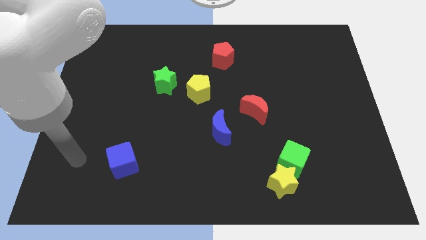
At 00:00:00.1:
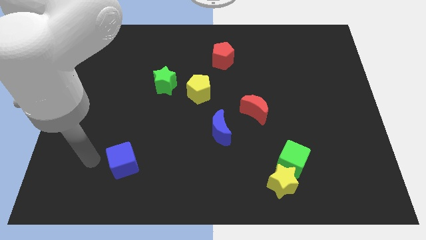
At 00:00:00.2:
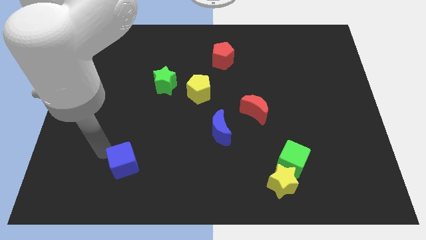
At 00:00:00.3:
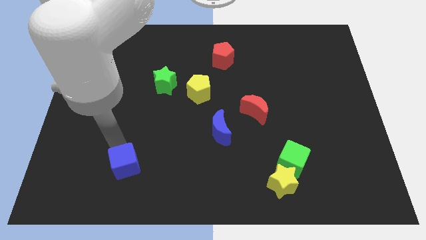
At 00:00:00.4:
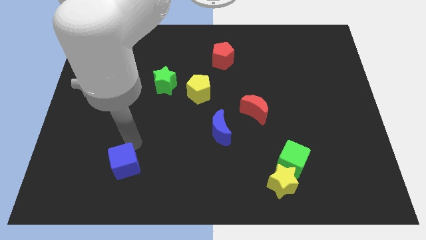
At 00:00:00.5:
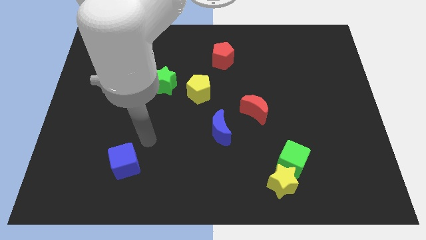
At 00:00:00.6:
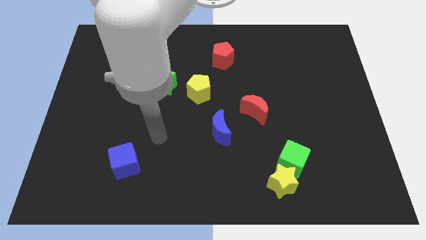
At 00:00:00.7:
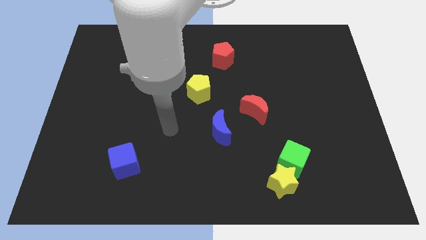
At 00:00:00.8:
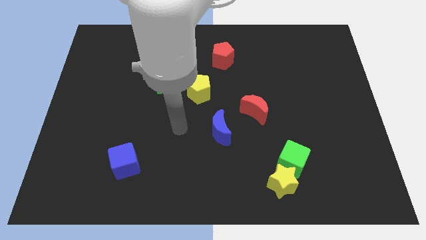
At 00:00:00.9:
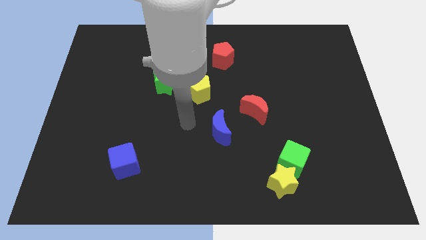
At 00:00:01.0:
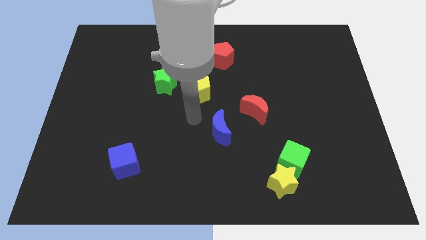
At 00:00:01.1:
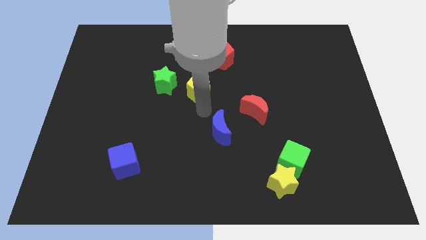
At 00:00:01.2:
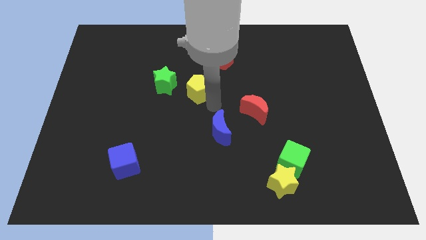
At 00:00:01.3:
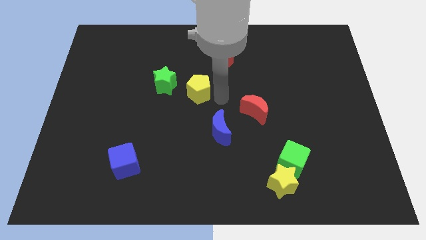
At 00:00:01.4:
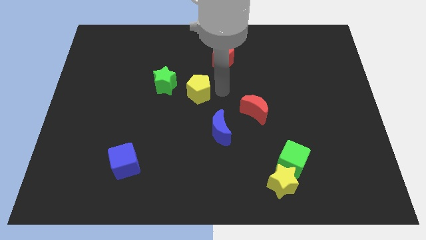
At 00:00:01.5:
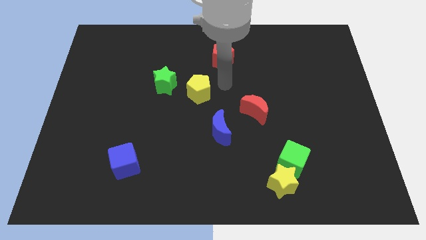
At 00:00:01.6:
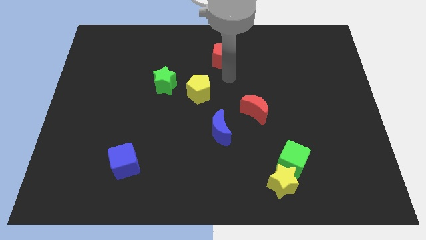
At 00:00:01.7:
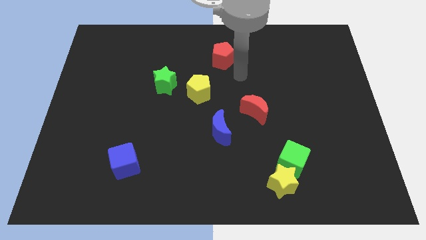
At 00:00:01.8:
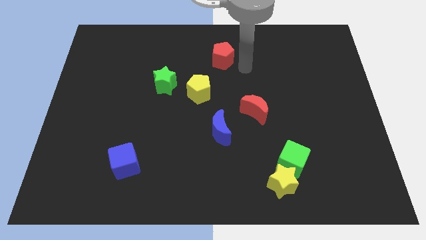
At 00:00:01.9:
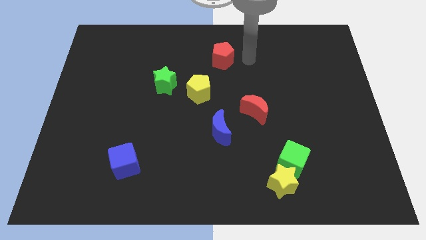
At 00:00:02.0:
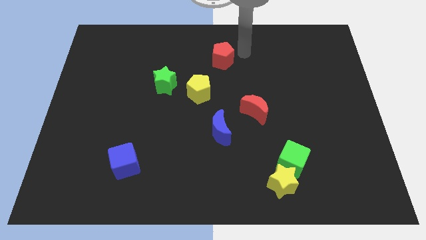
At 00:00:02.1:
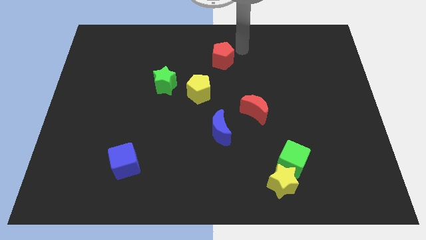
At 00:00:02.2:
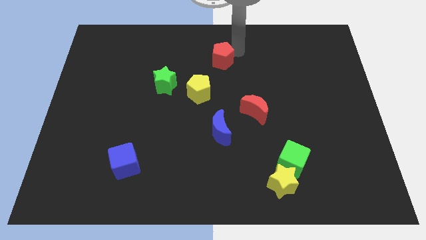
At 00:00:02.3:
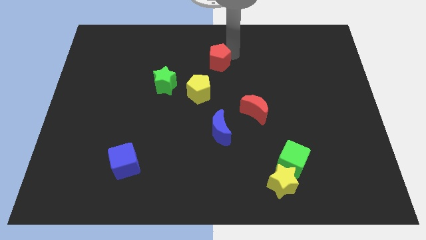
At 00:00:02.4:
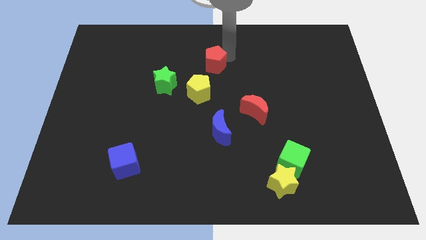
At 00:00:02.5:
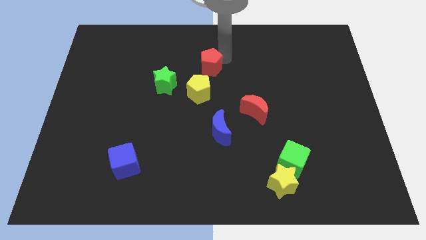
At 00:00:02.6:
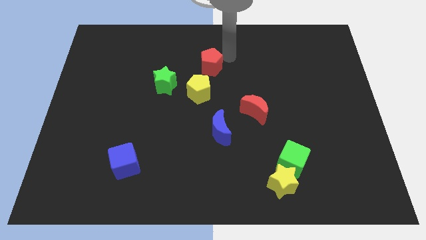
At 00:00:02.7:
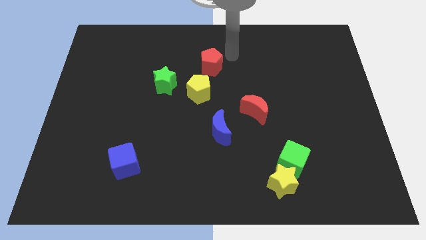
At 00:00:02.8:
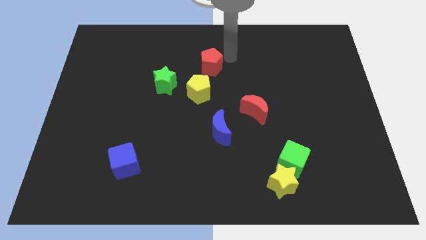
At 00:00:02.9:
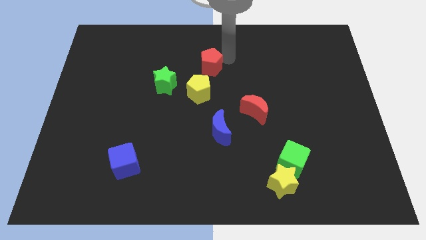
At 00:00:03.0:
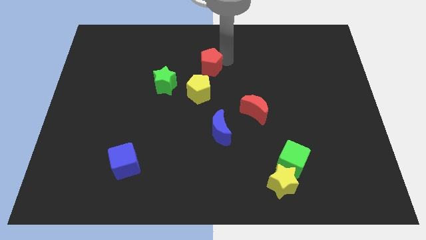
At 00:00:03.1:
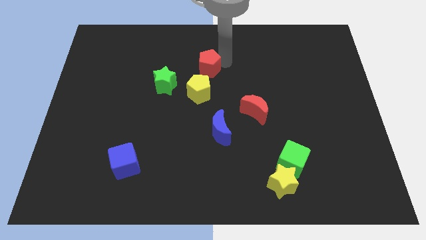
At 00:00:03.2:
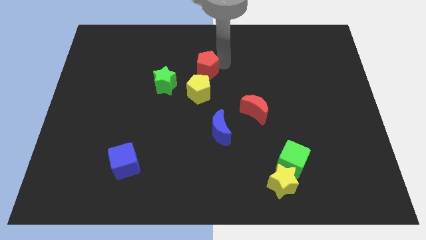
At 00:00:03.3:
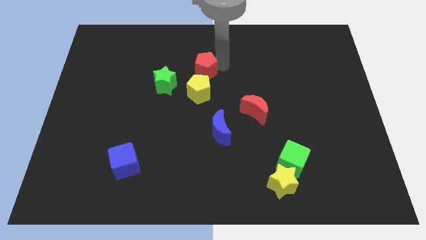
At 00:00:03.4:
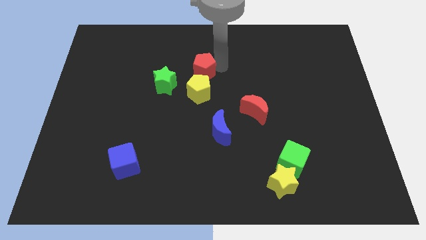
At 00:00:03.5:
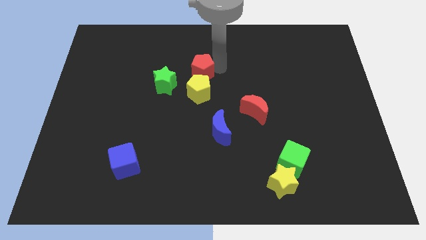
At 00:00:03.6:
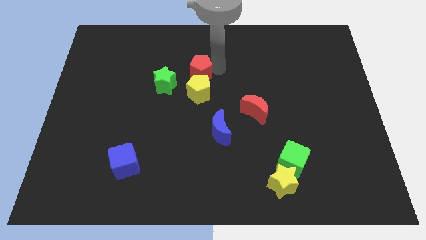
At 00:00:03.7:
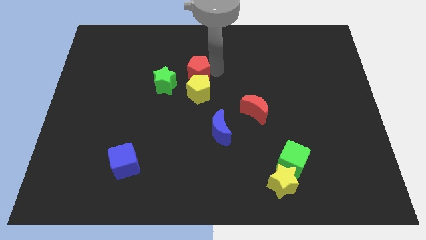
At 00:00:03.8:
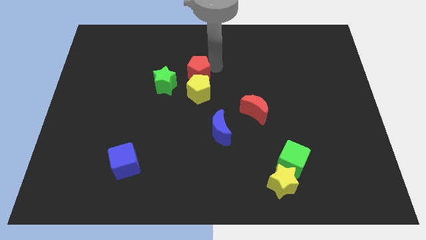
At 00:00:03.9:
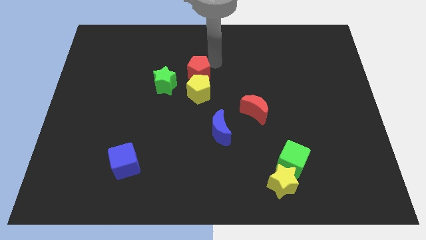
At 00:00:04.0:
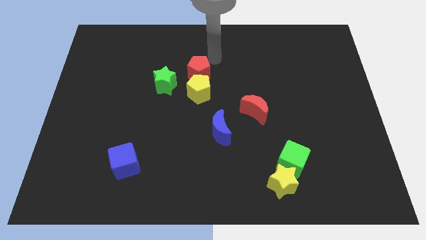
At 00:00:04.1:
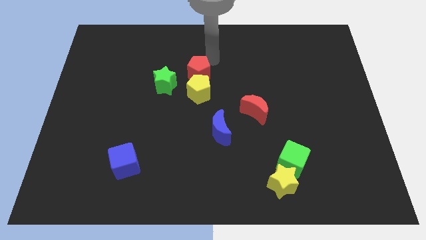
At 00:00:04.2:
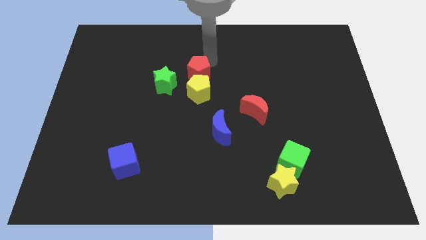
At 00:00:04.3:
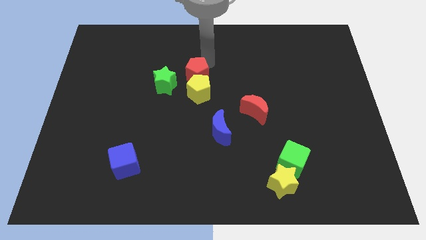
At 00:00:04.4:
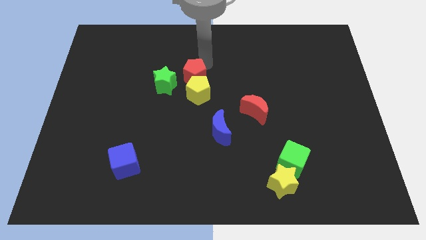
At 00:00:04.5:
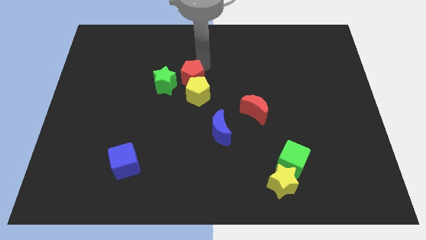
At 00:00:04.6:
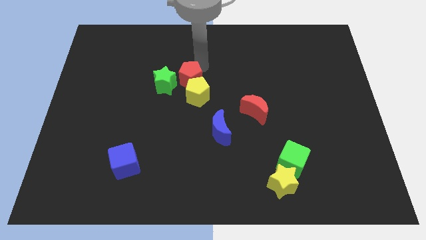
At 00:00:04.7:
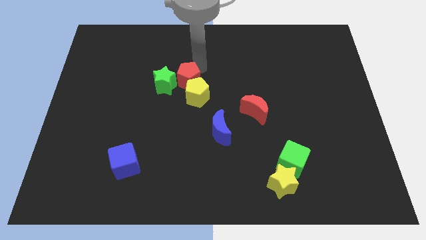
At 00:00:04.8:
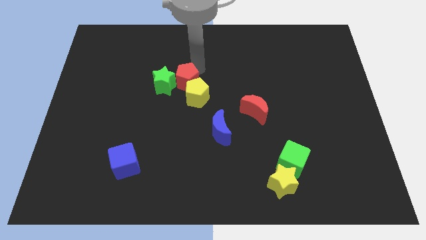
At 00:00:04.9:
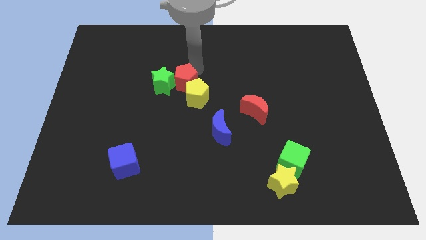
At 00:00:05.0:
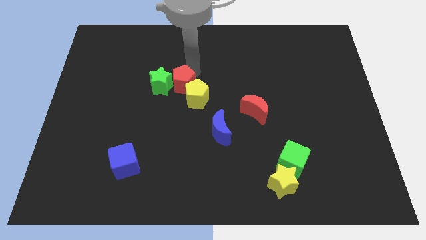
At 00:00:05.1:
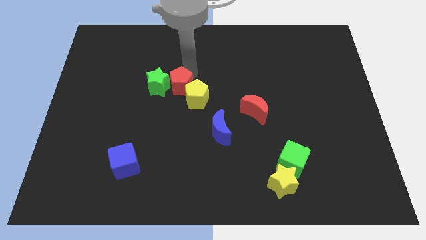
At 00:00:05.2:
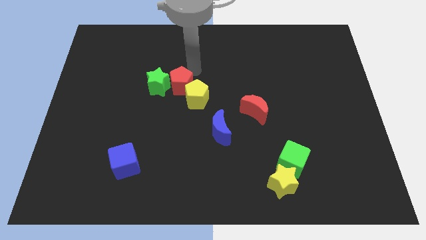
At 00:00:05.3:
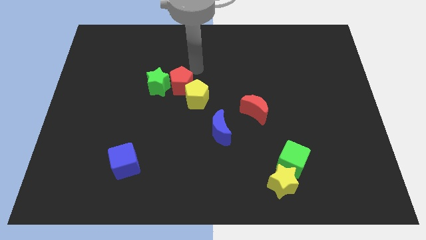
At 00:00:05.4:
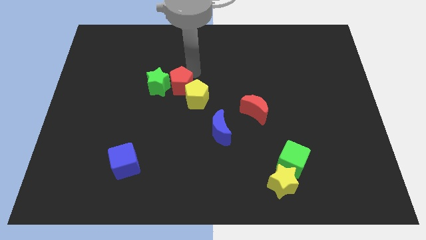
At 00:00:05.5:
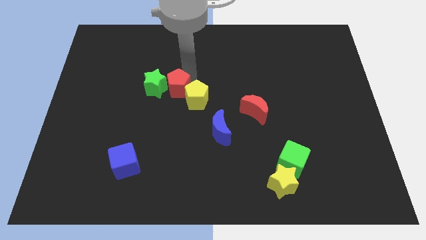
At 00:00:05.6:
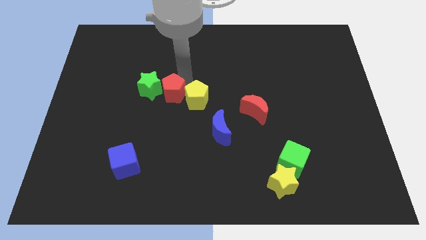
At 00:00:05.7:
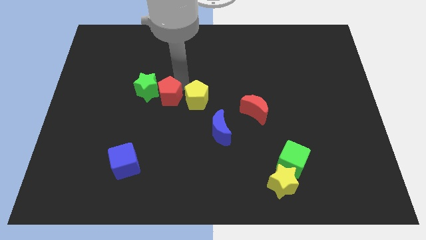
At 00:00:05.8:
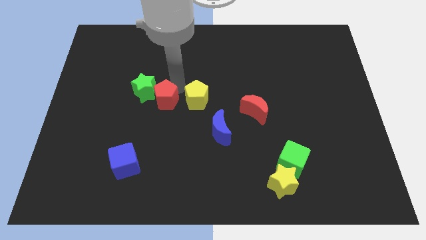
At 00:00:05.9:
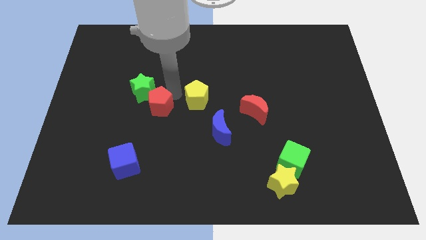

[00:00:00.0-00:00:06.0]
slide the red pentagon down and to the left

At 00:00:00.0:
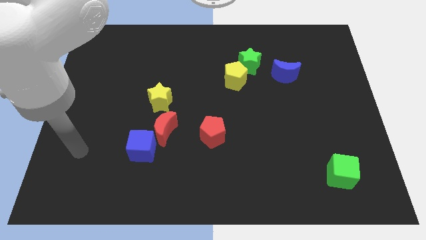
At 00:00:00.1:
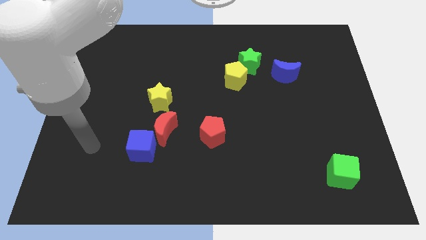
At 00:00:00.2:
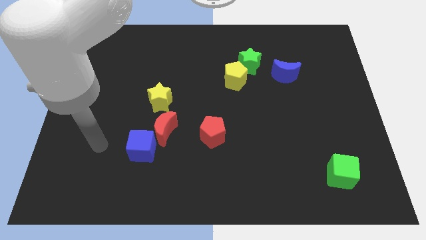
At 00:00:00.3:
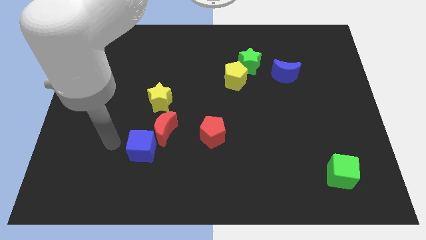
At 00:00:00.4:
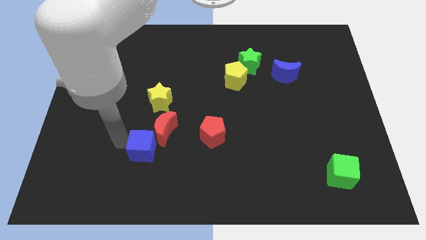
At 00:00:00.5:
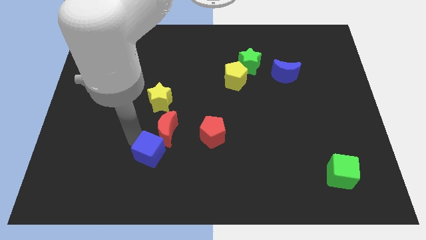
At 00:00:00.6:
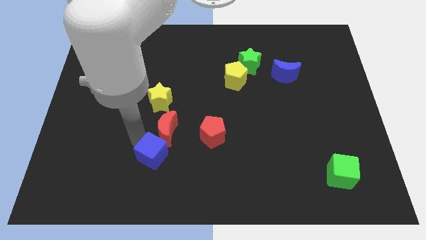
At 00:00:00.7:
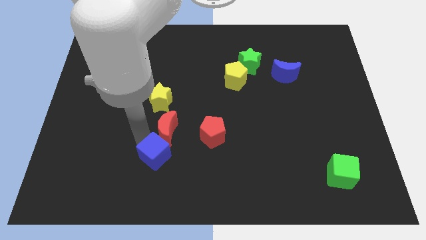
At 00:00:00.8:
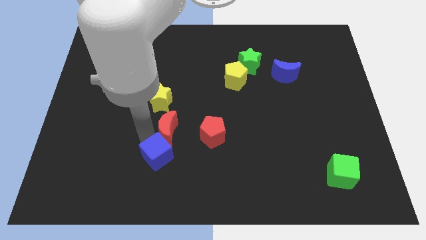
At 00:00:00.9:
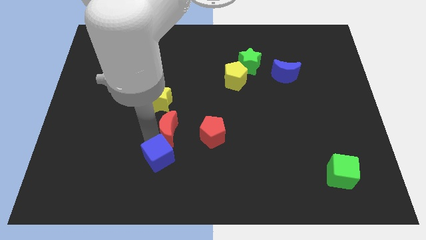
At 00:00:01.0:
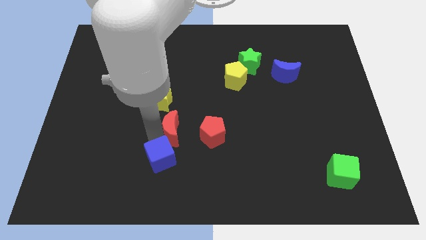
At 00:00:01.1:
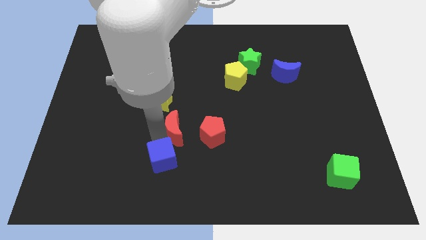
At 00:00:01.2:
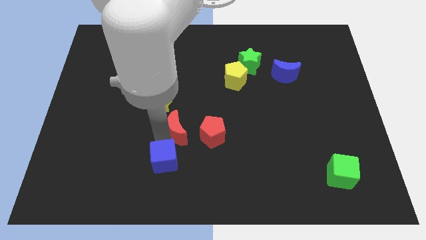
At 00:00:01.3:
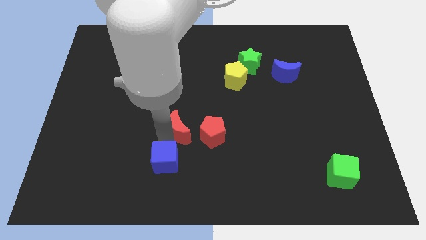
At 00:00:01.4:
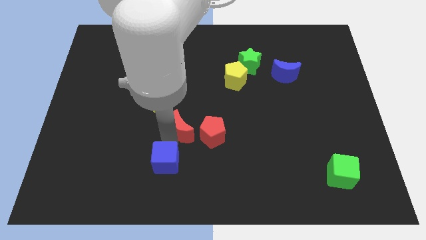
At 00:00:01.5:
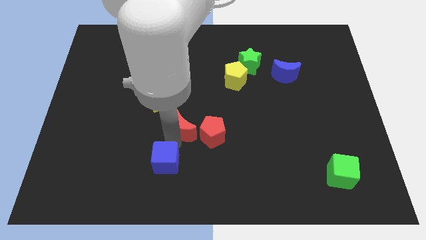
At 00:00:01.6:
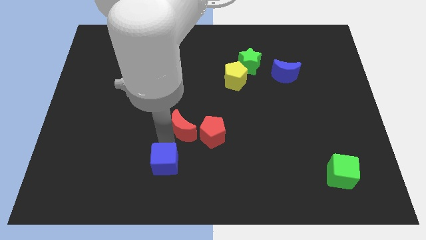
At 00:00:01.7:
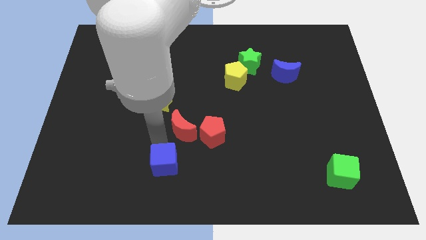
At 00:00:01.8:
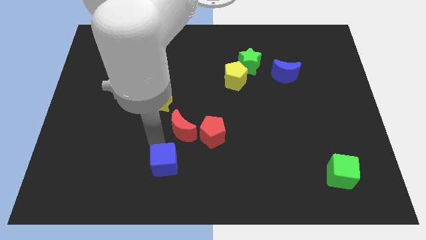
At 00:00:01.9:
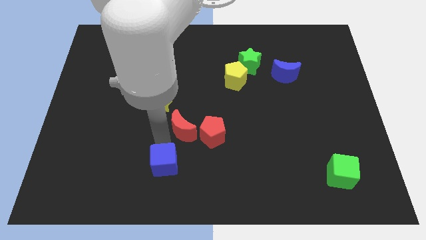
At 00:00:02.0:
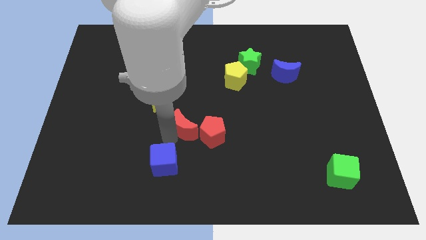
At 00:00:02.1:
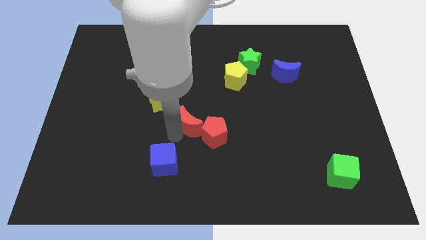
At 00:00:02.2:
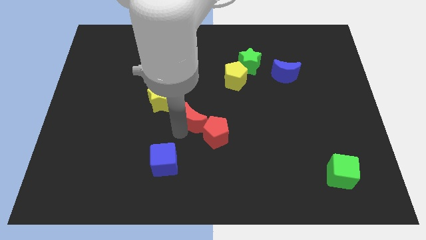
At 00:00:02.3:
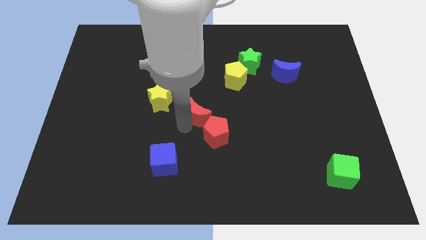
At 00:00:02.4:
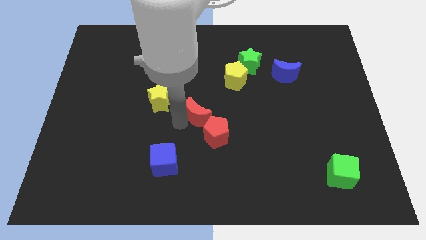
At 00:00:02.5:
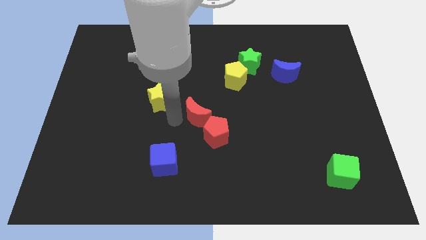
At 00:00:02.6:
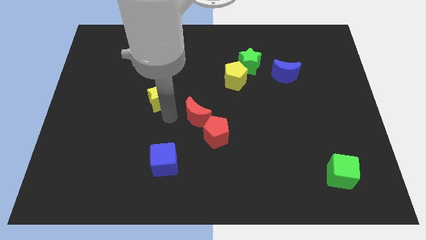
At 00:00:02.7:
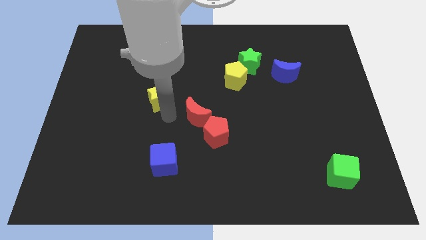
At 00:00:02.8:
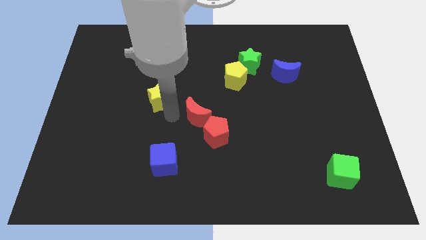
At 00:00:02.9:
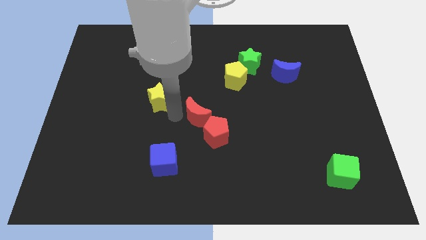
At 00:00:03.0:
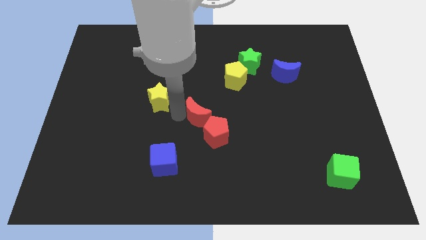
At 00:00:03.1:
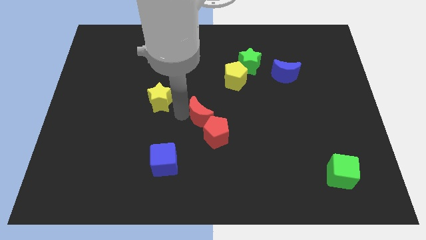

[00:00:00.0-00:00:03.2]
slide the red moon to the right a little
